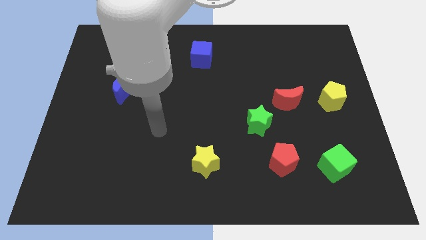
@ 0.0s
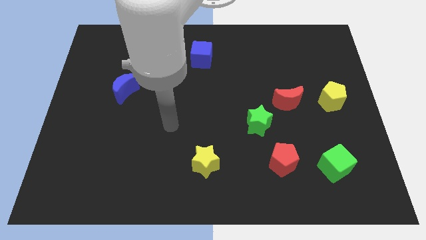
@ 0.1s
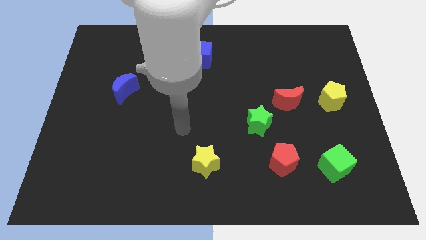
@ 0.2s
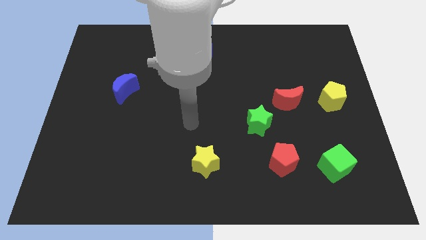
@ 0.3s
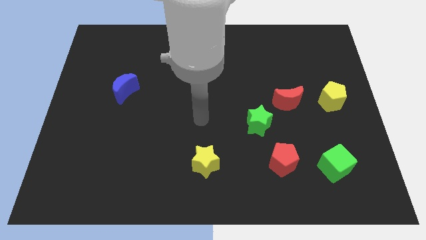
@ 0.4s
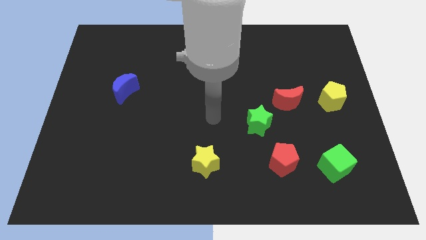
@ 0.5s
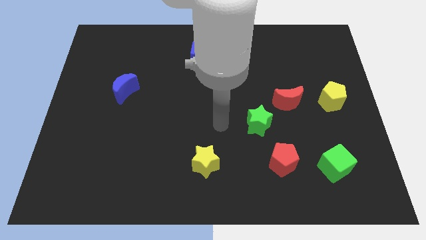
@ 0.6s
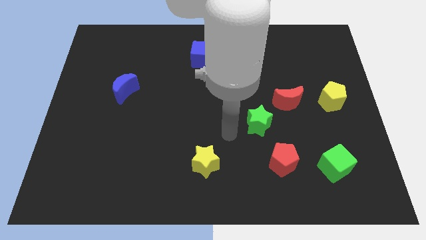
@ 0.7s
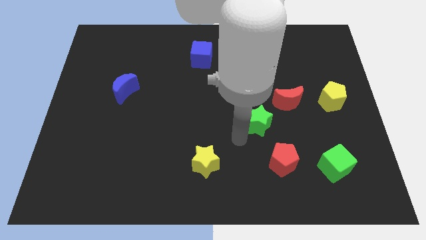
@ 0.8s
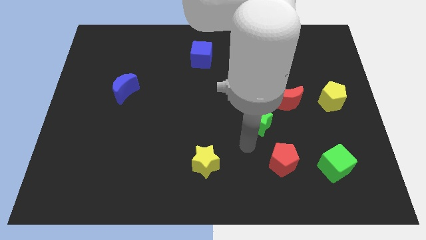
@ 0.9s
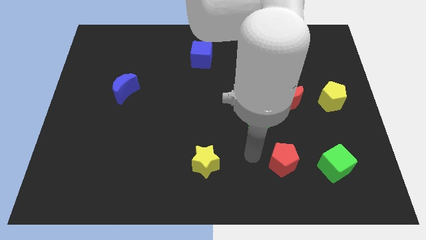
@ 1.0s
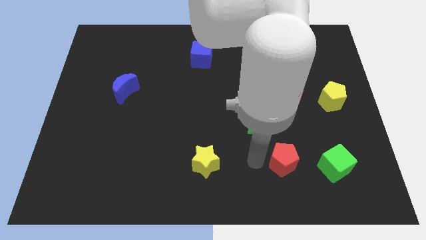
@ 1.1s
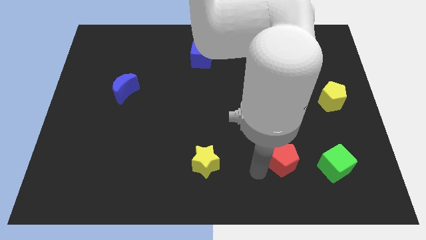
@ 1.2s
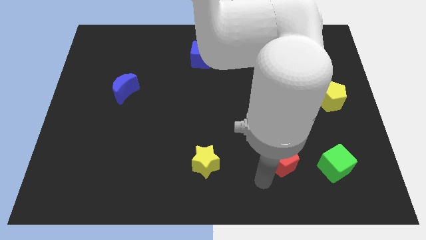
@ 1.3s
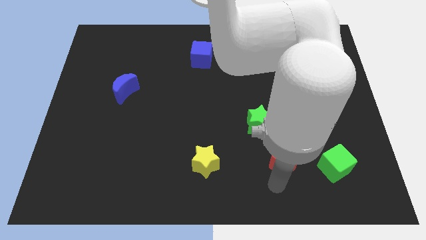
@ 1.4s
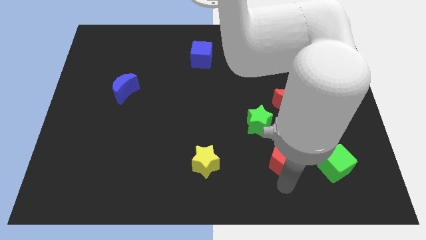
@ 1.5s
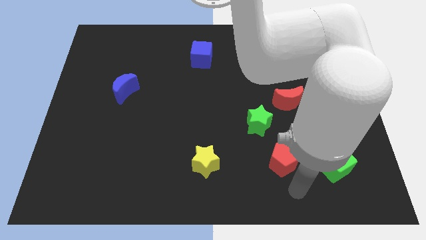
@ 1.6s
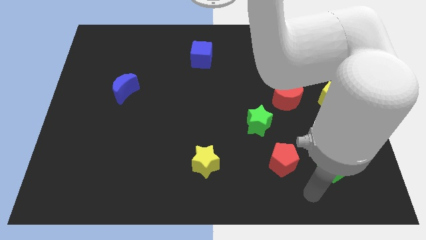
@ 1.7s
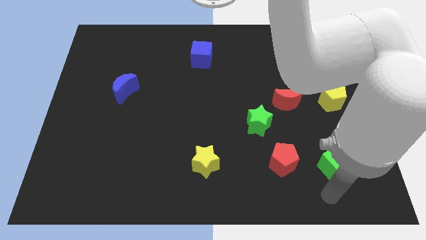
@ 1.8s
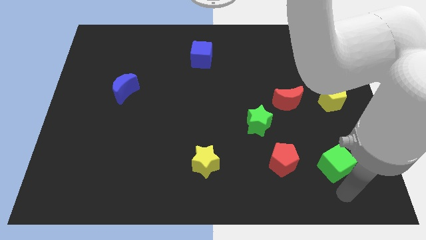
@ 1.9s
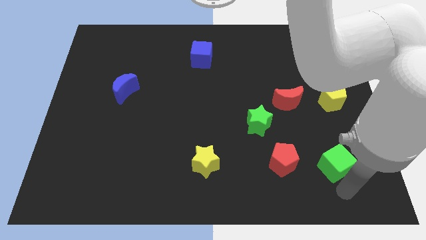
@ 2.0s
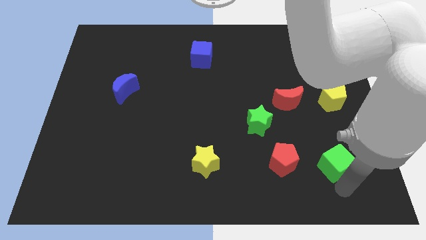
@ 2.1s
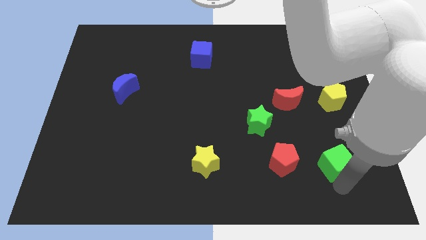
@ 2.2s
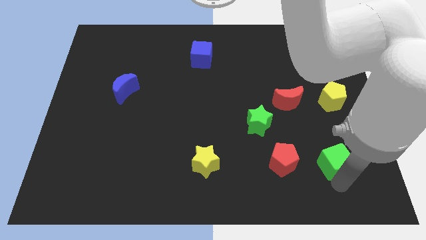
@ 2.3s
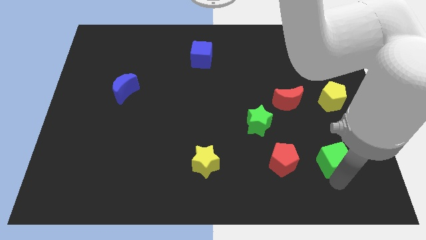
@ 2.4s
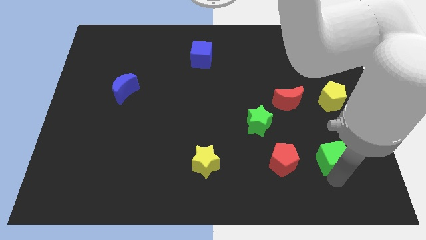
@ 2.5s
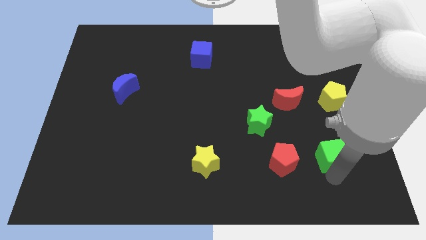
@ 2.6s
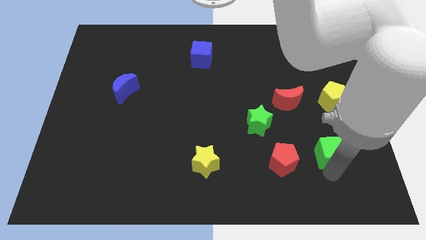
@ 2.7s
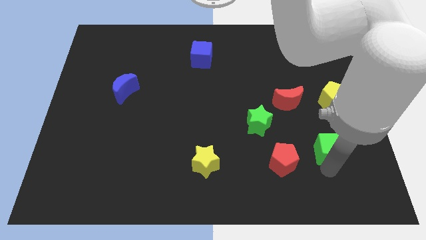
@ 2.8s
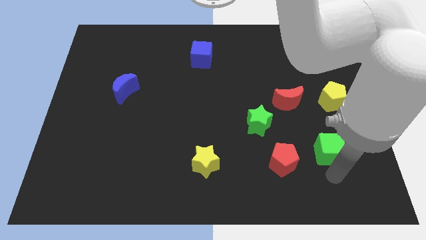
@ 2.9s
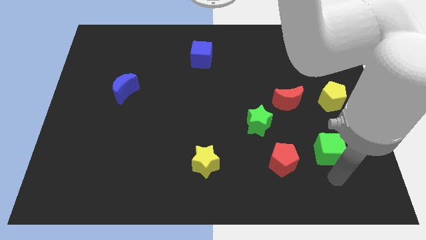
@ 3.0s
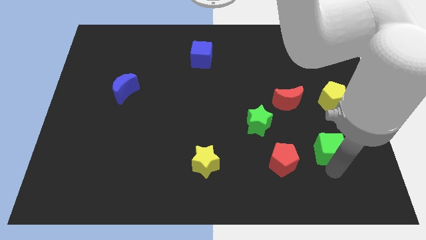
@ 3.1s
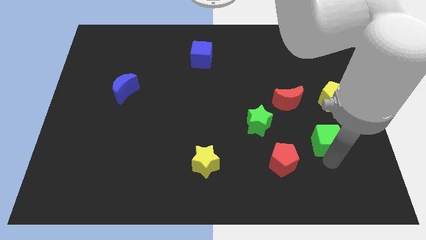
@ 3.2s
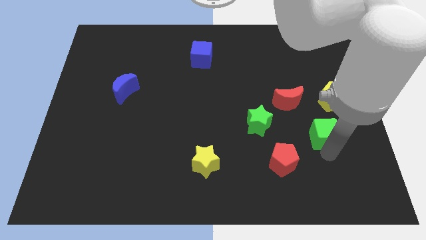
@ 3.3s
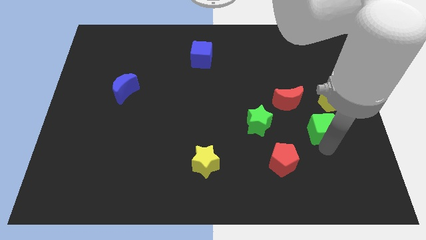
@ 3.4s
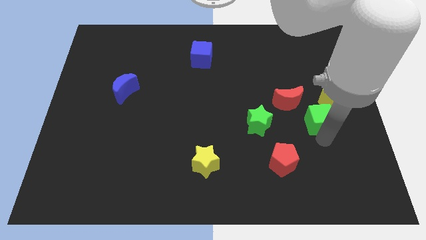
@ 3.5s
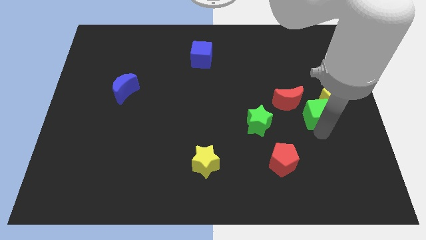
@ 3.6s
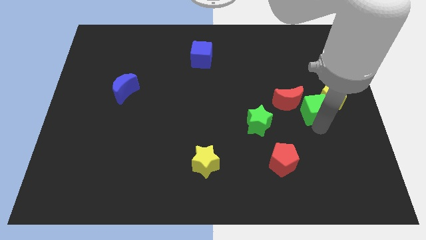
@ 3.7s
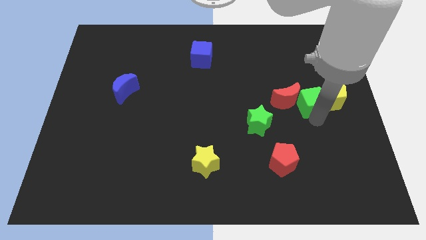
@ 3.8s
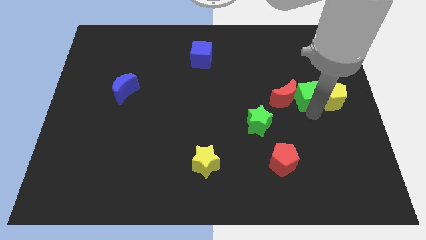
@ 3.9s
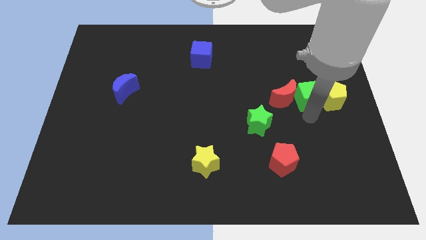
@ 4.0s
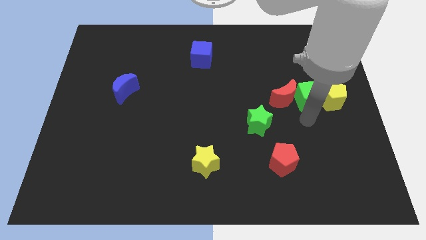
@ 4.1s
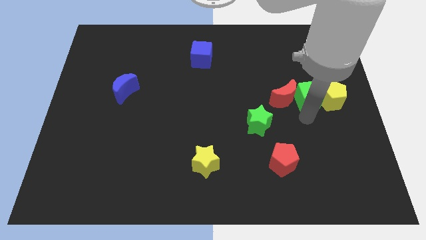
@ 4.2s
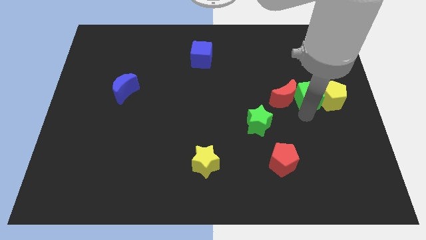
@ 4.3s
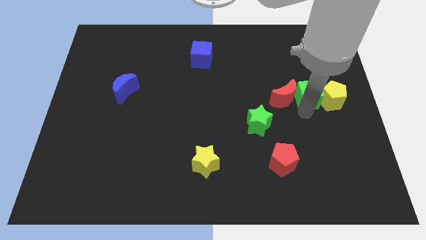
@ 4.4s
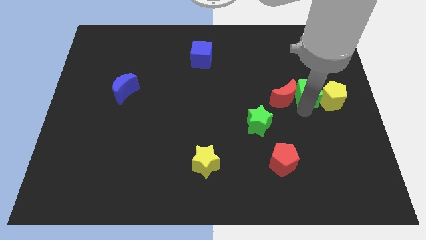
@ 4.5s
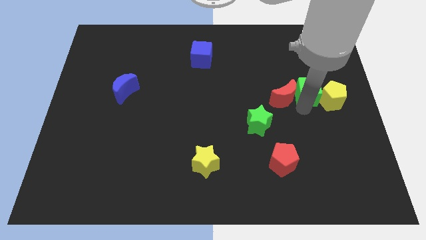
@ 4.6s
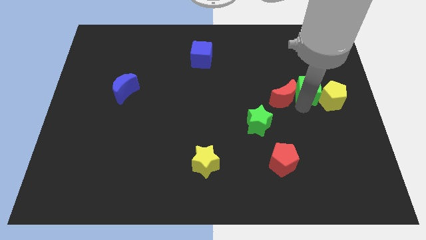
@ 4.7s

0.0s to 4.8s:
push the green cube up

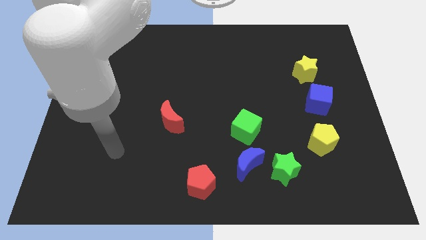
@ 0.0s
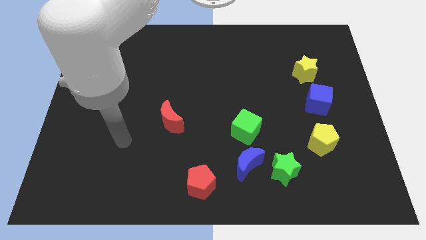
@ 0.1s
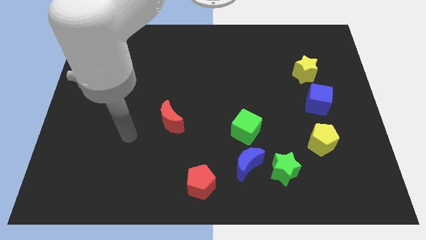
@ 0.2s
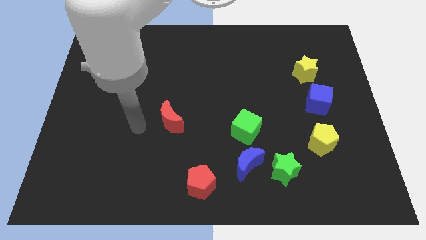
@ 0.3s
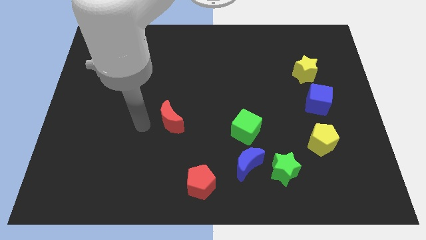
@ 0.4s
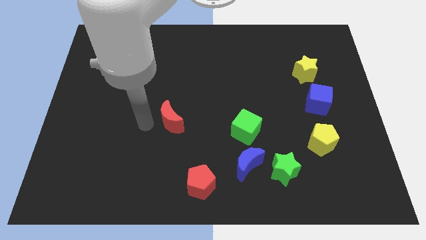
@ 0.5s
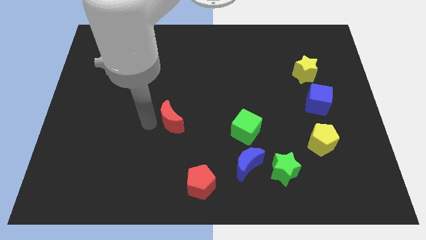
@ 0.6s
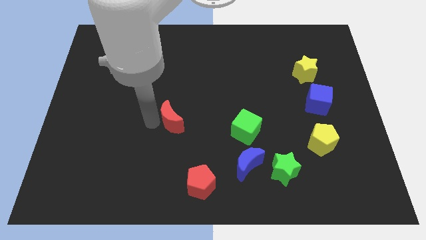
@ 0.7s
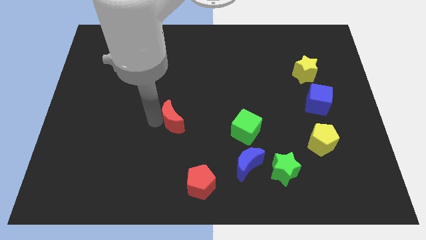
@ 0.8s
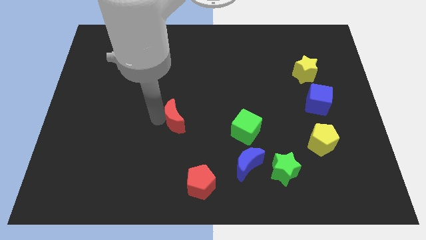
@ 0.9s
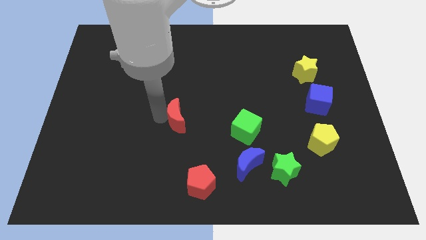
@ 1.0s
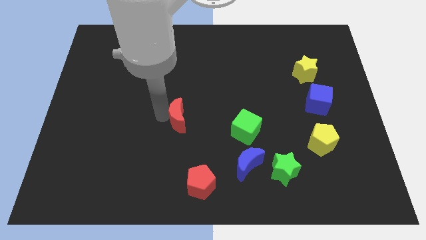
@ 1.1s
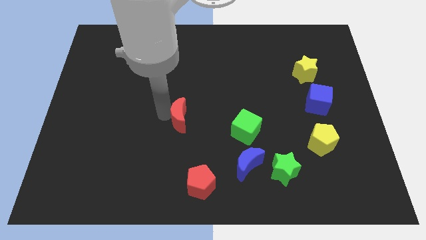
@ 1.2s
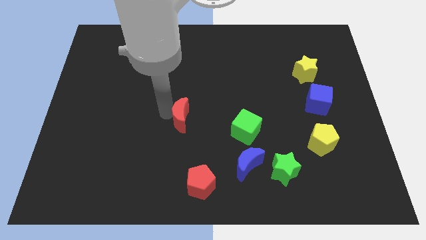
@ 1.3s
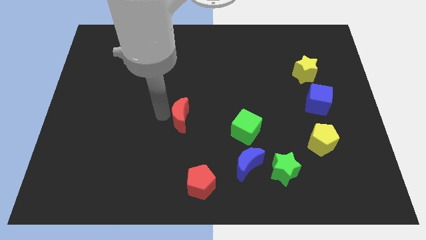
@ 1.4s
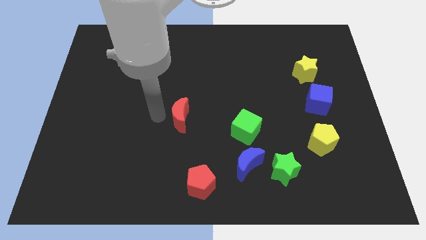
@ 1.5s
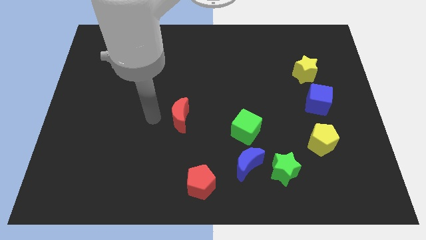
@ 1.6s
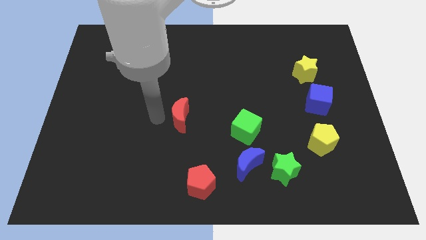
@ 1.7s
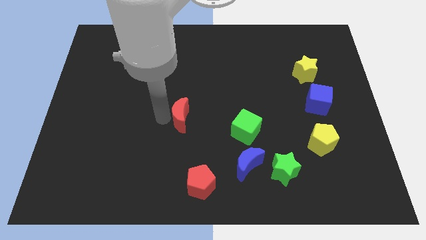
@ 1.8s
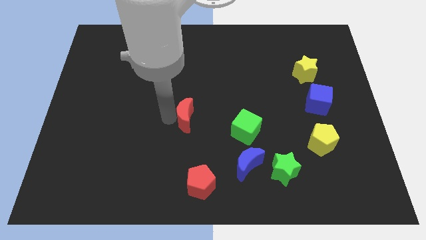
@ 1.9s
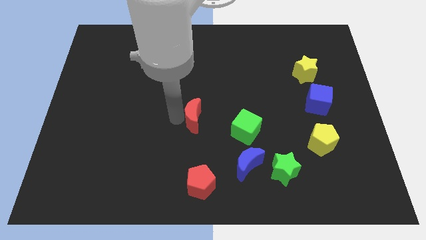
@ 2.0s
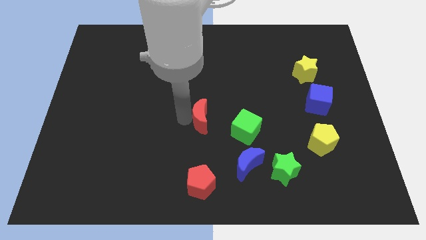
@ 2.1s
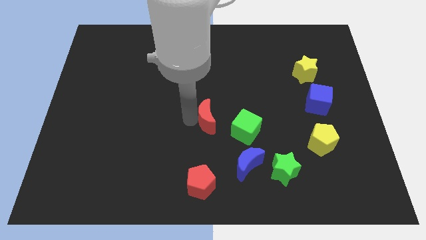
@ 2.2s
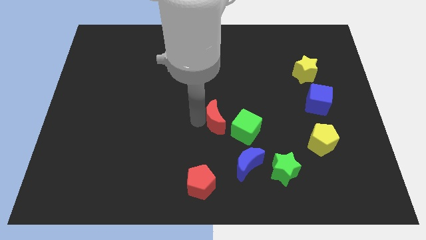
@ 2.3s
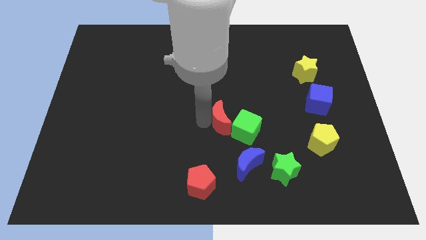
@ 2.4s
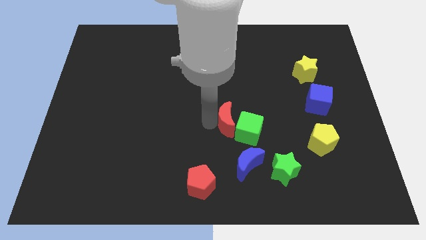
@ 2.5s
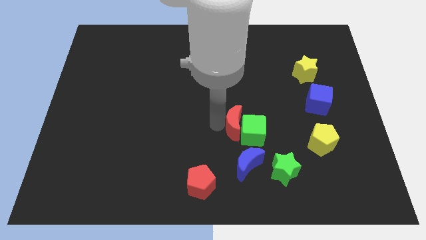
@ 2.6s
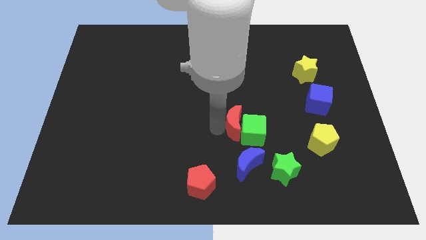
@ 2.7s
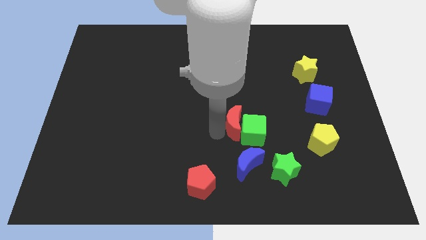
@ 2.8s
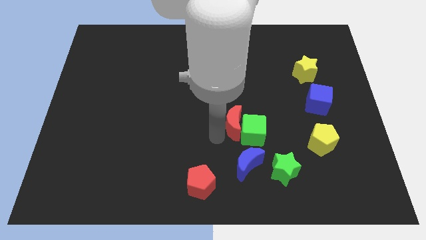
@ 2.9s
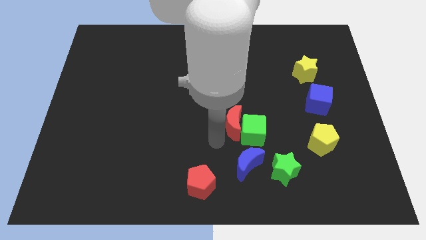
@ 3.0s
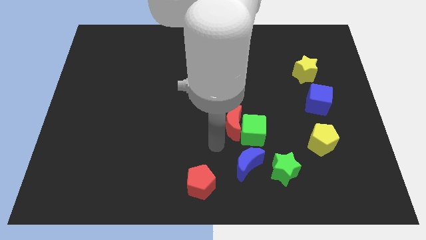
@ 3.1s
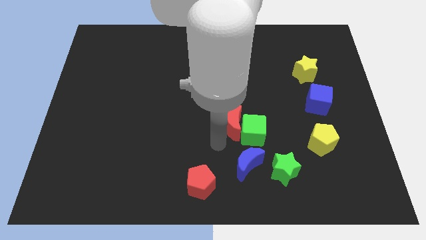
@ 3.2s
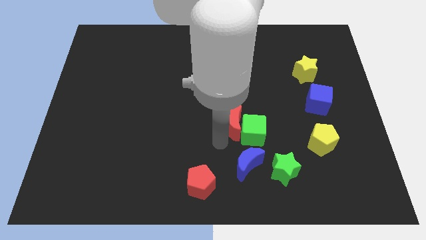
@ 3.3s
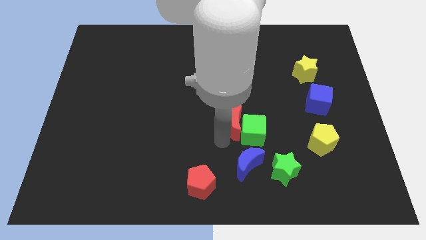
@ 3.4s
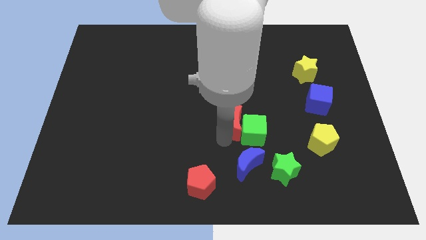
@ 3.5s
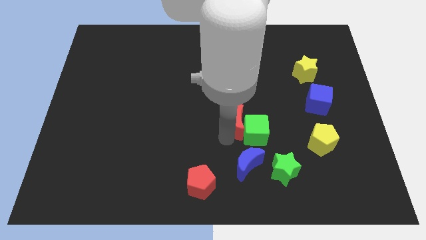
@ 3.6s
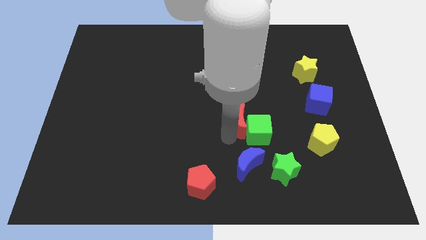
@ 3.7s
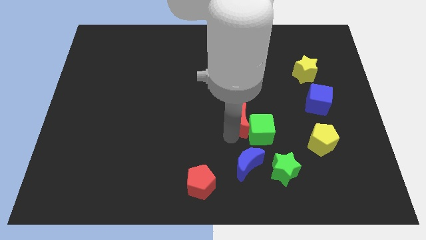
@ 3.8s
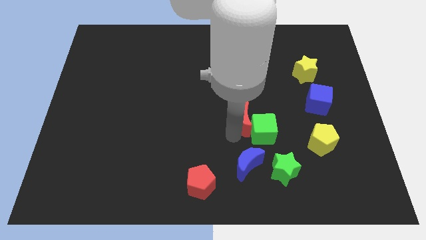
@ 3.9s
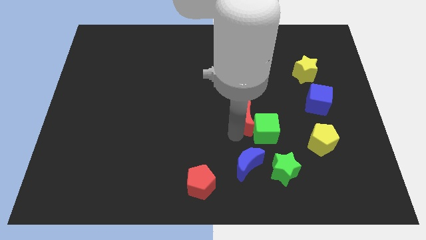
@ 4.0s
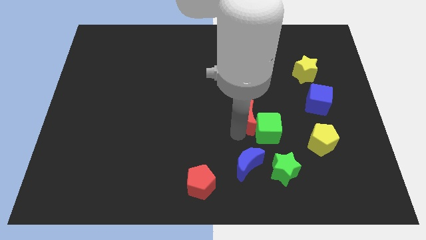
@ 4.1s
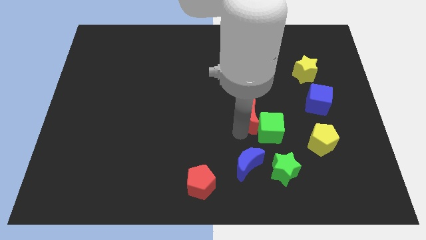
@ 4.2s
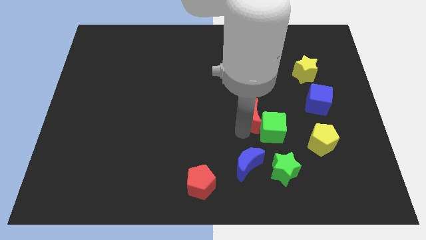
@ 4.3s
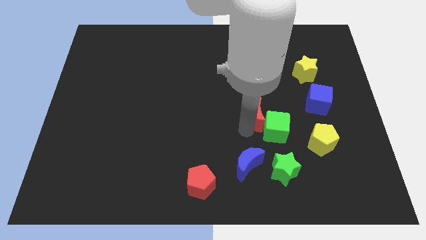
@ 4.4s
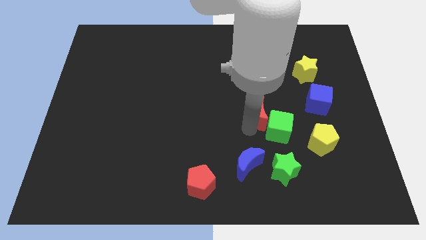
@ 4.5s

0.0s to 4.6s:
slide the red moon right
